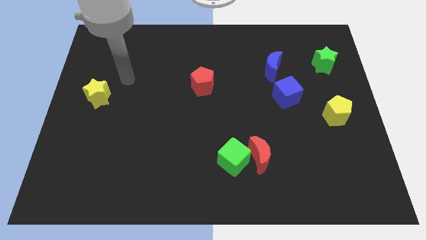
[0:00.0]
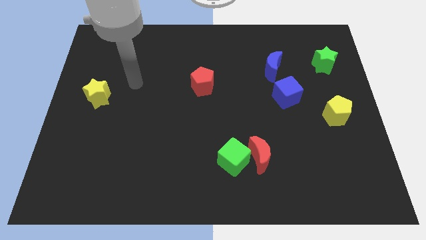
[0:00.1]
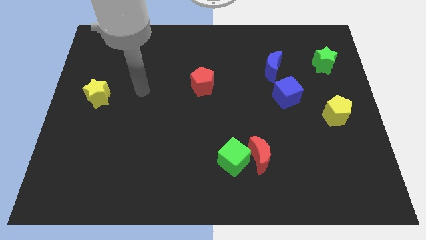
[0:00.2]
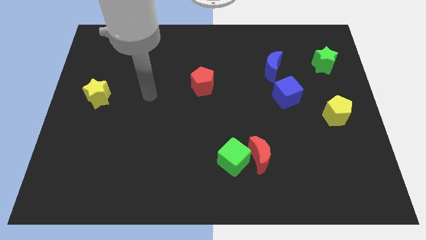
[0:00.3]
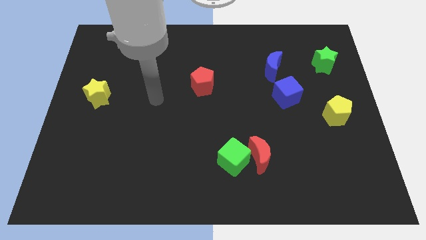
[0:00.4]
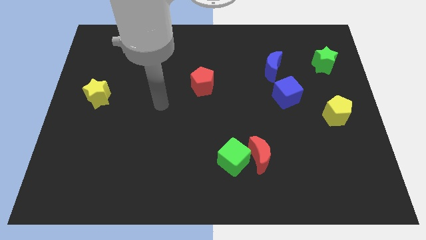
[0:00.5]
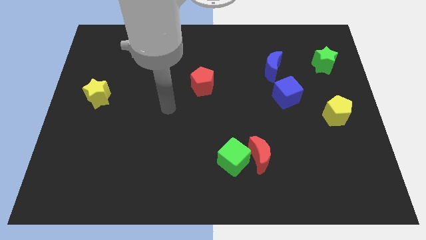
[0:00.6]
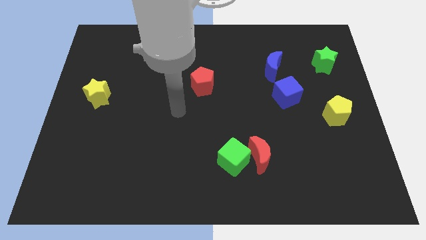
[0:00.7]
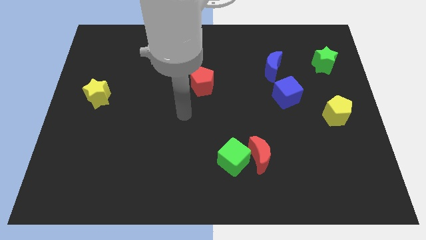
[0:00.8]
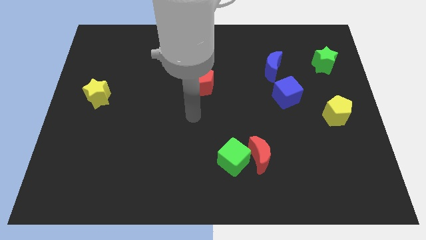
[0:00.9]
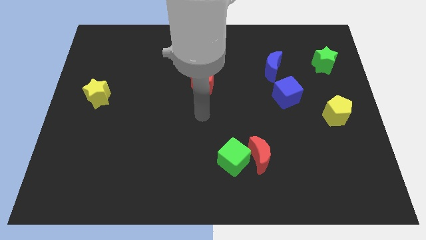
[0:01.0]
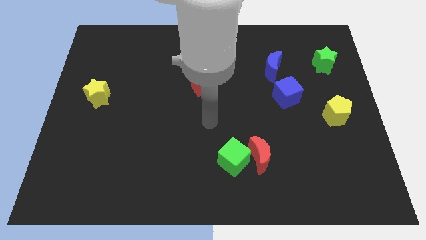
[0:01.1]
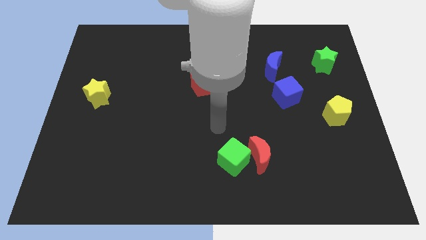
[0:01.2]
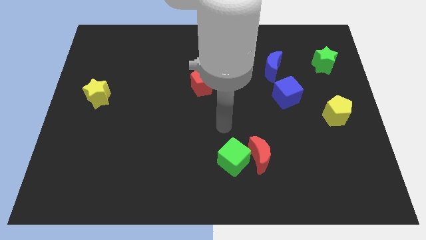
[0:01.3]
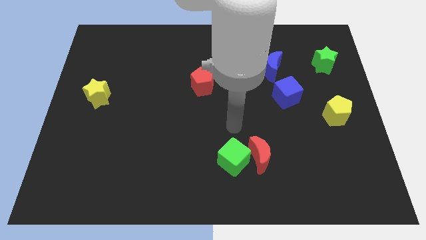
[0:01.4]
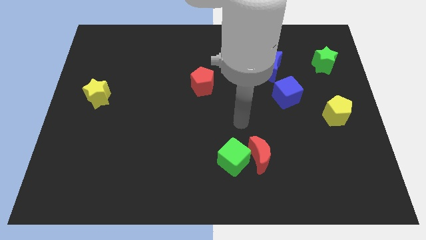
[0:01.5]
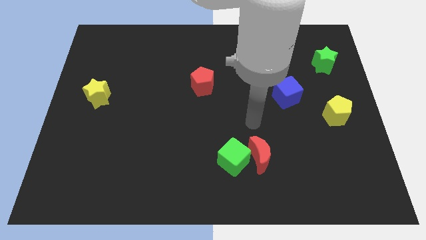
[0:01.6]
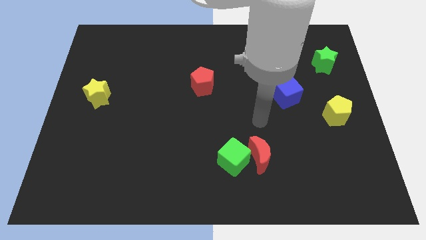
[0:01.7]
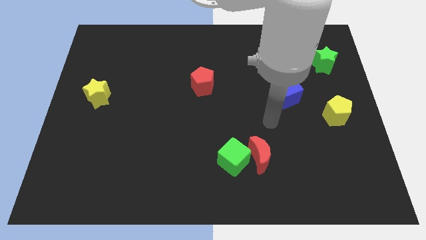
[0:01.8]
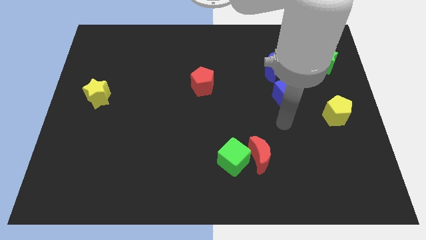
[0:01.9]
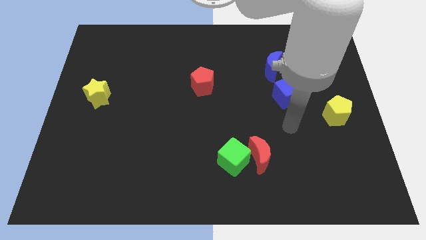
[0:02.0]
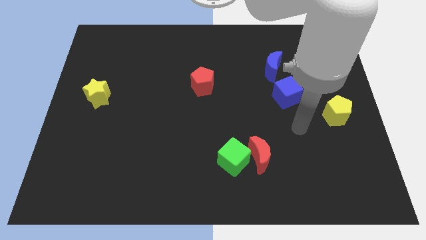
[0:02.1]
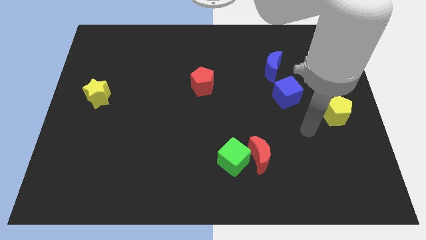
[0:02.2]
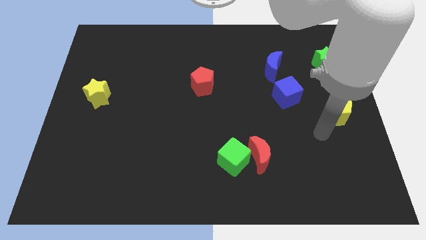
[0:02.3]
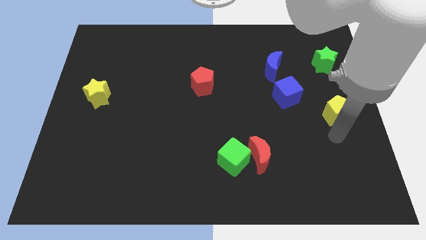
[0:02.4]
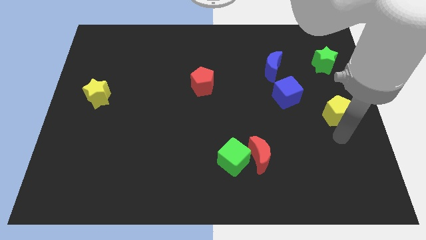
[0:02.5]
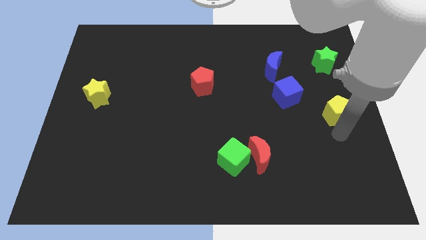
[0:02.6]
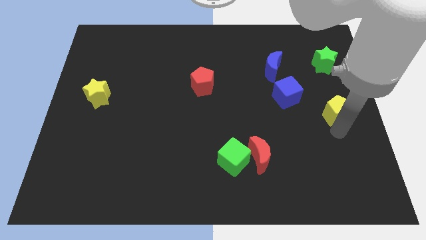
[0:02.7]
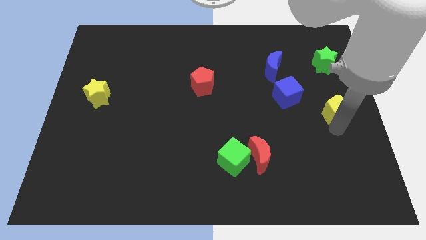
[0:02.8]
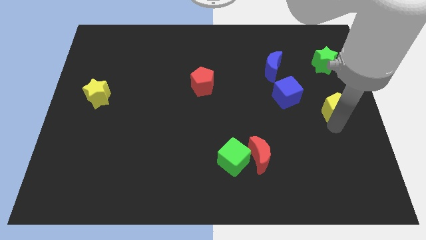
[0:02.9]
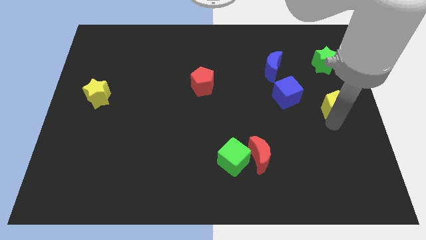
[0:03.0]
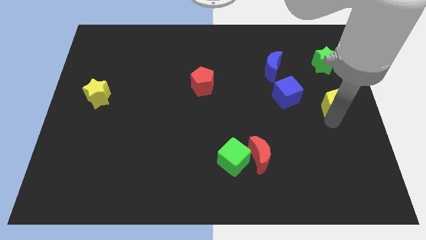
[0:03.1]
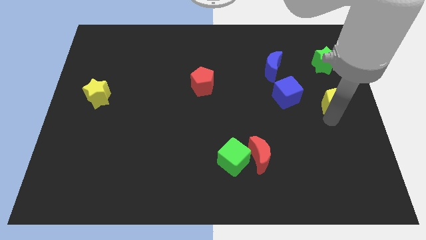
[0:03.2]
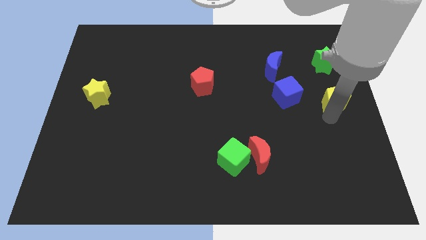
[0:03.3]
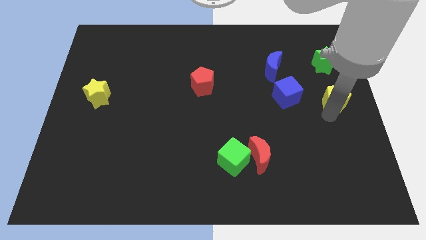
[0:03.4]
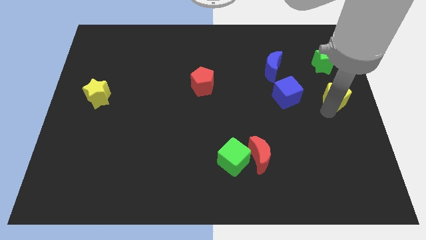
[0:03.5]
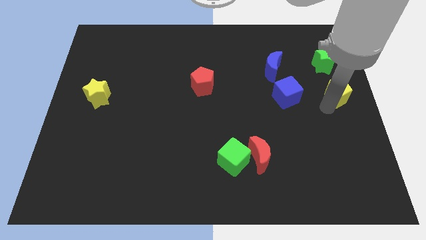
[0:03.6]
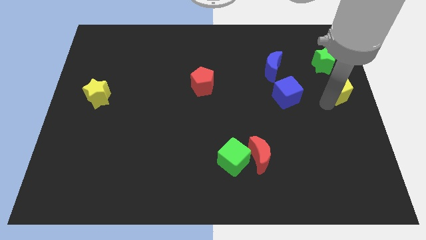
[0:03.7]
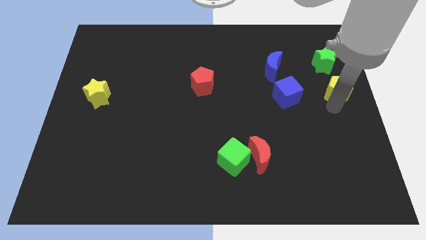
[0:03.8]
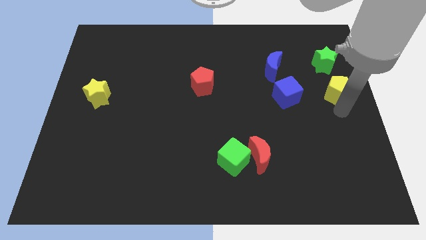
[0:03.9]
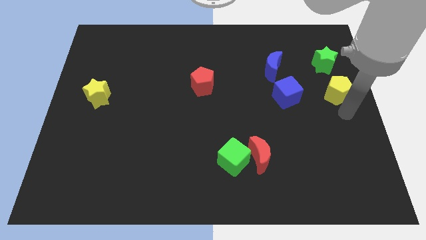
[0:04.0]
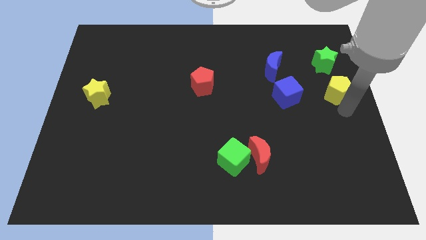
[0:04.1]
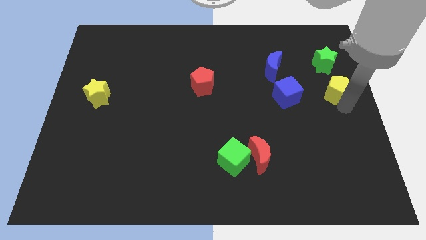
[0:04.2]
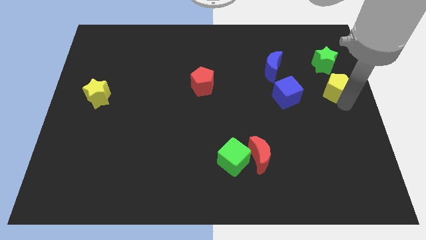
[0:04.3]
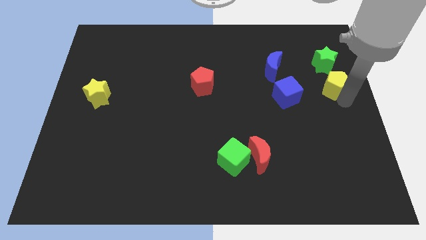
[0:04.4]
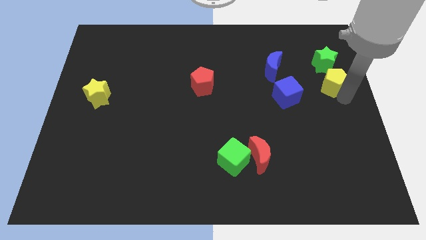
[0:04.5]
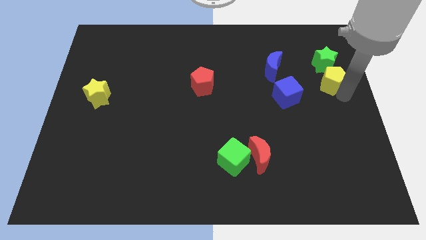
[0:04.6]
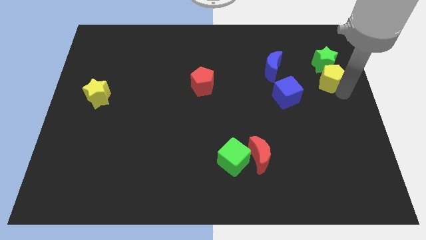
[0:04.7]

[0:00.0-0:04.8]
put the yellow pentagon next to the green star

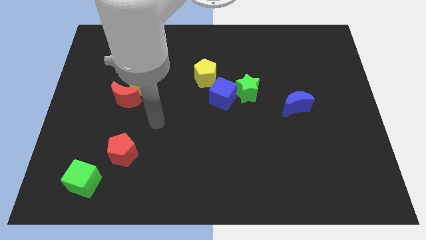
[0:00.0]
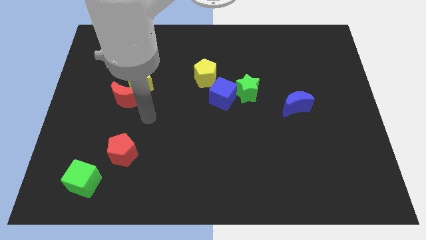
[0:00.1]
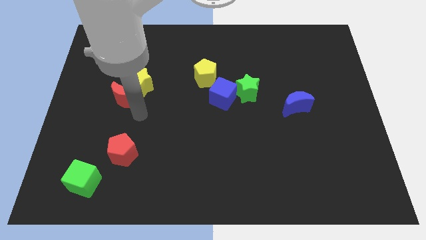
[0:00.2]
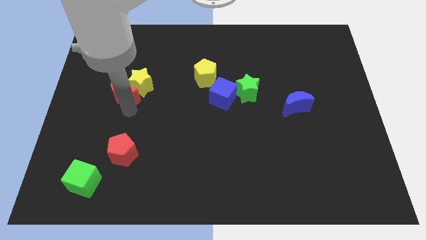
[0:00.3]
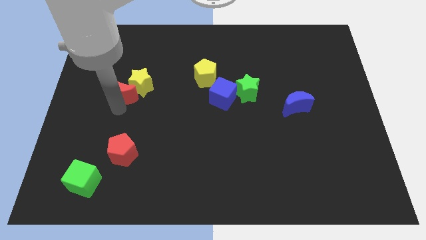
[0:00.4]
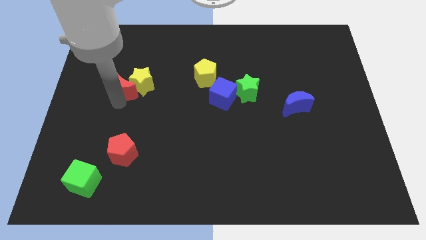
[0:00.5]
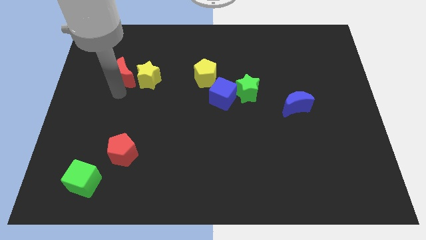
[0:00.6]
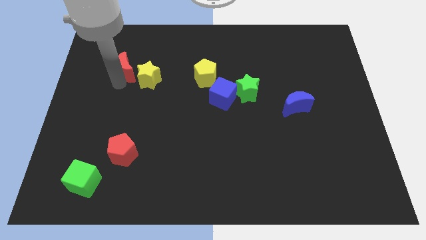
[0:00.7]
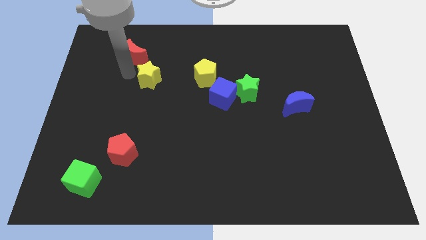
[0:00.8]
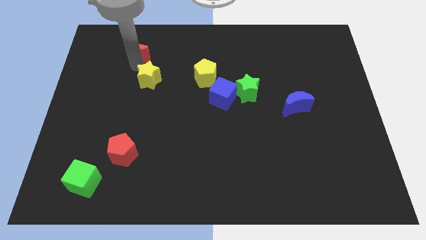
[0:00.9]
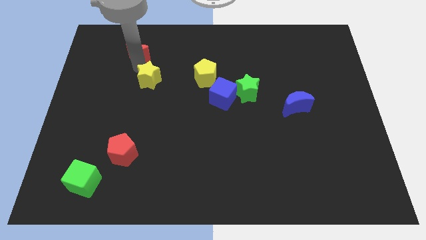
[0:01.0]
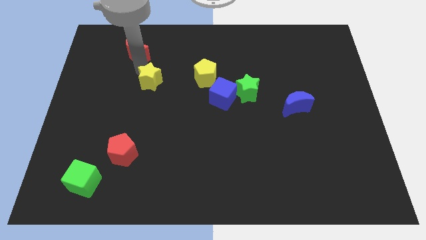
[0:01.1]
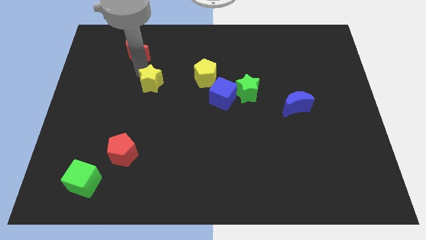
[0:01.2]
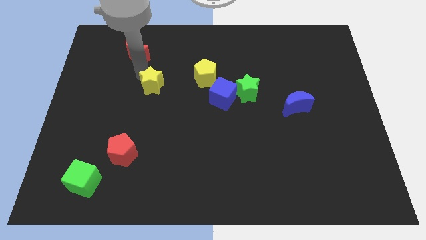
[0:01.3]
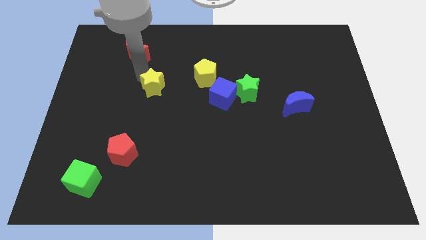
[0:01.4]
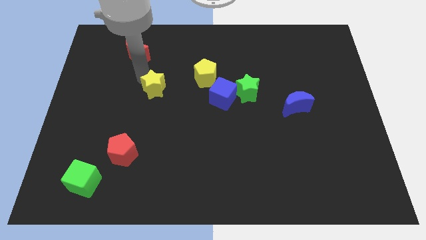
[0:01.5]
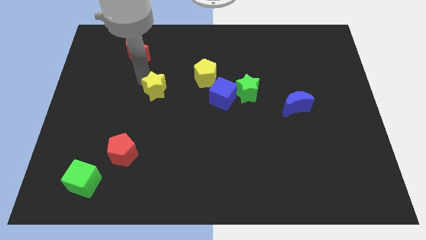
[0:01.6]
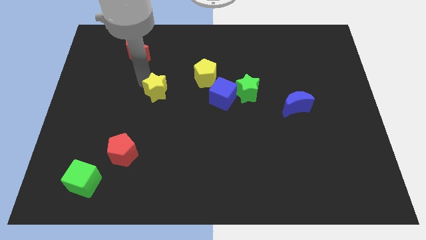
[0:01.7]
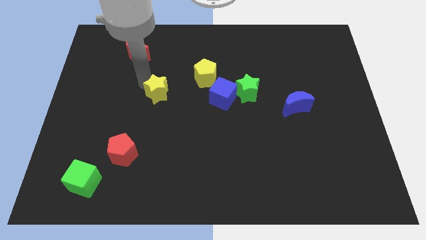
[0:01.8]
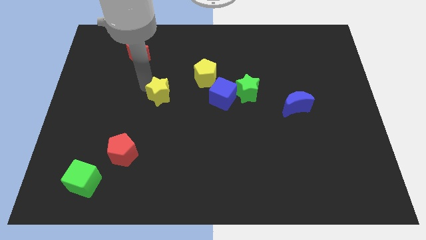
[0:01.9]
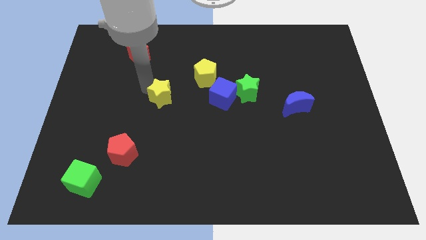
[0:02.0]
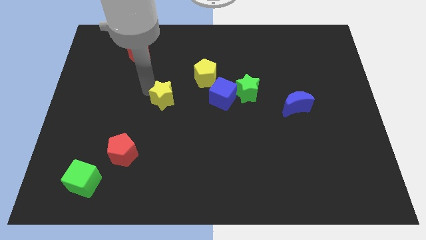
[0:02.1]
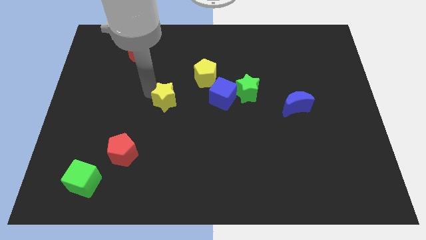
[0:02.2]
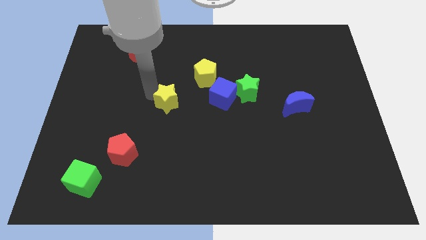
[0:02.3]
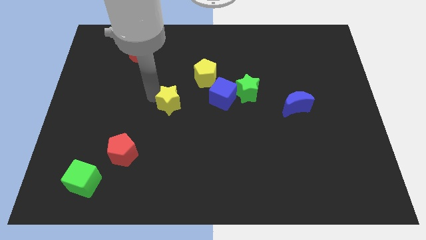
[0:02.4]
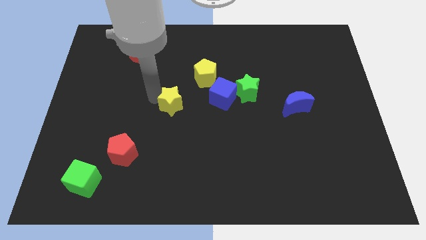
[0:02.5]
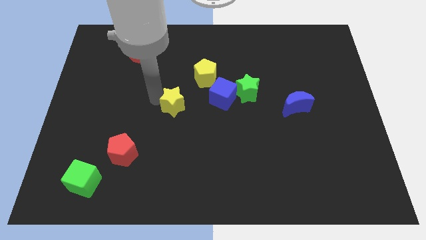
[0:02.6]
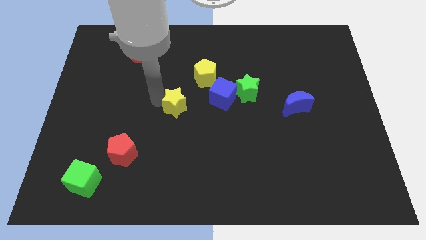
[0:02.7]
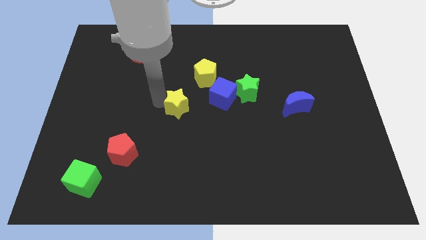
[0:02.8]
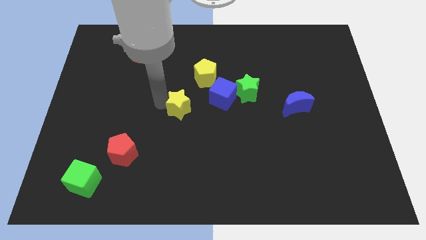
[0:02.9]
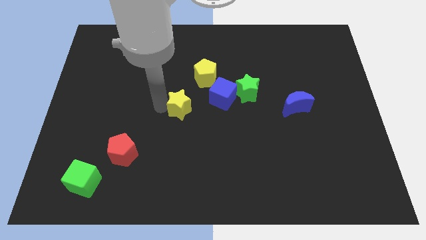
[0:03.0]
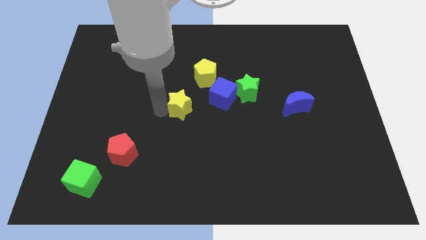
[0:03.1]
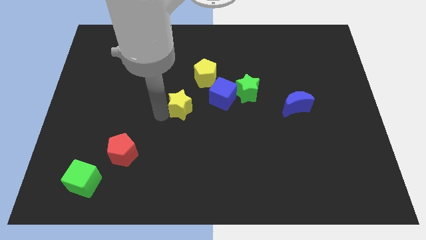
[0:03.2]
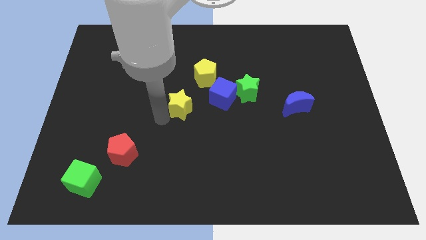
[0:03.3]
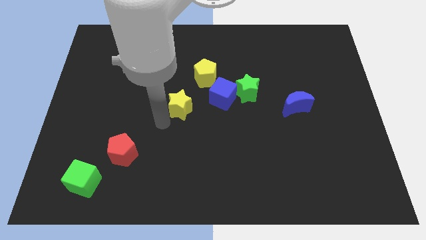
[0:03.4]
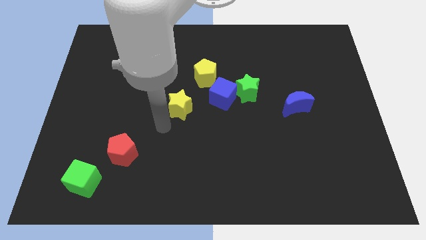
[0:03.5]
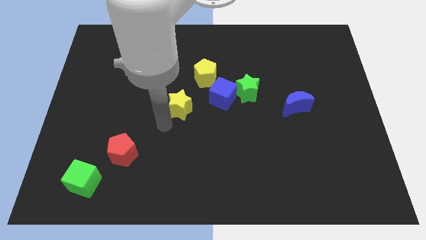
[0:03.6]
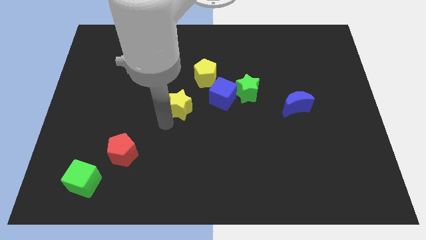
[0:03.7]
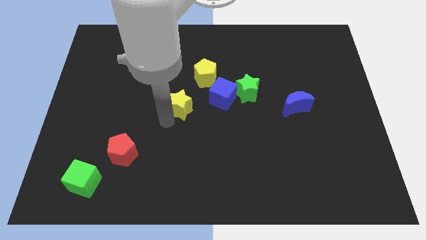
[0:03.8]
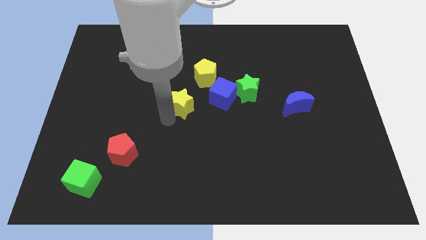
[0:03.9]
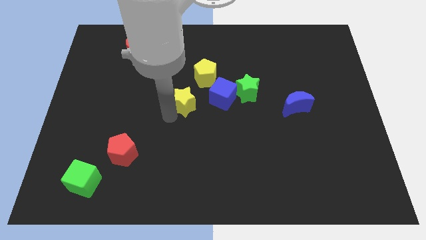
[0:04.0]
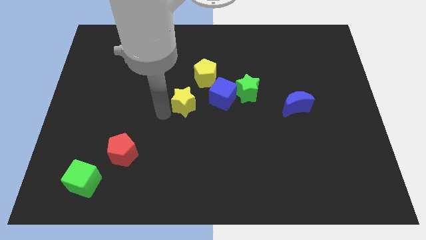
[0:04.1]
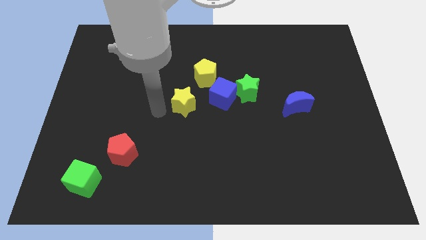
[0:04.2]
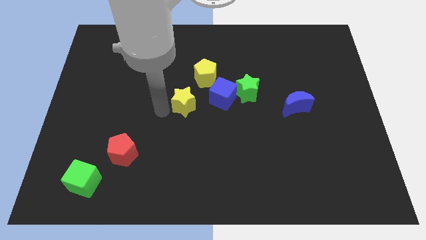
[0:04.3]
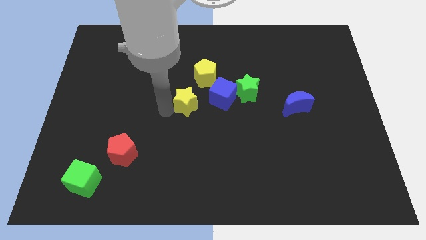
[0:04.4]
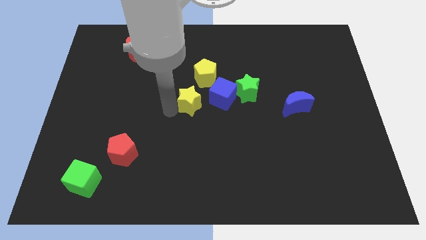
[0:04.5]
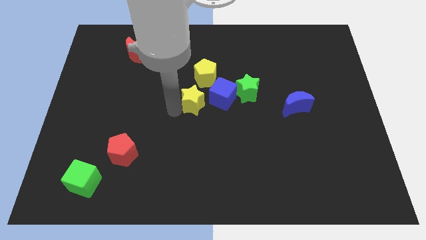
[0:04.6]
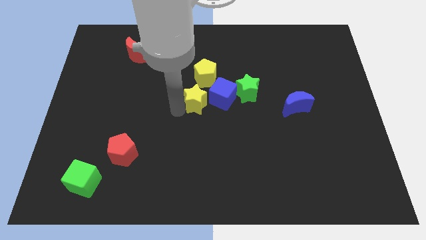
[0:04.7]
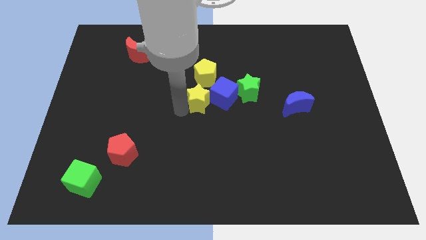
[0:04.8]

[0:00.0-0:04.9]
put the yellow star close to the blue cube
